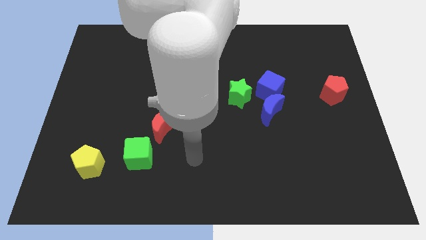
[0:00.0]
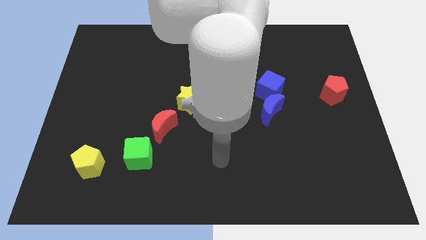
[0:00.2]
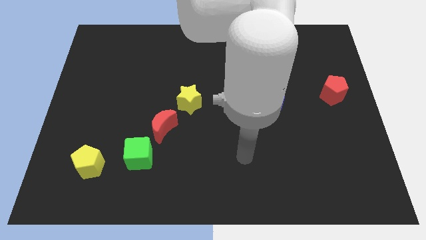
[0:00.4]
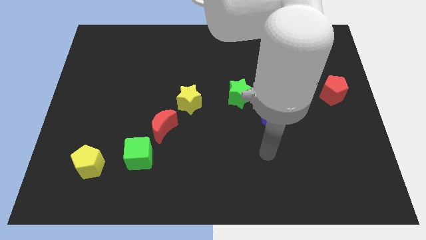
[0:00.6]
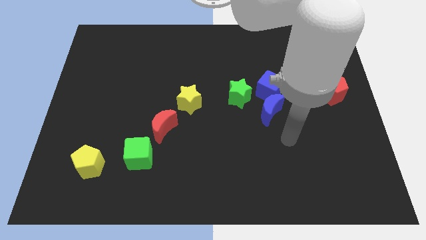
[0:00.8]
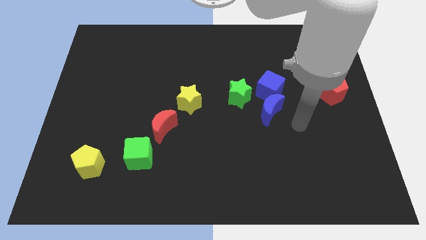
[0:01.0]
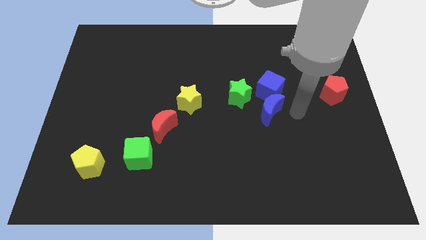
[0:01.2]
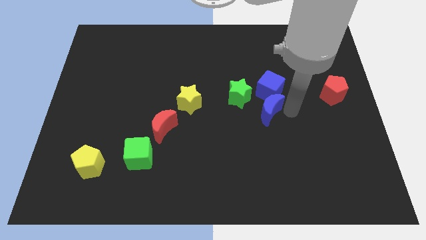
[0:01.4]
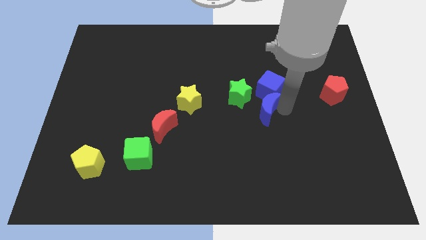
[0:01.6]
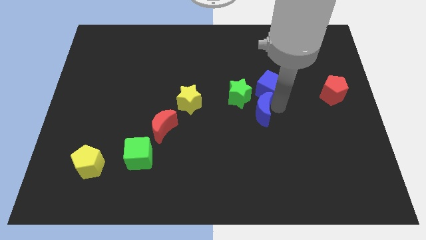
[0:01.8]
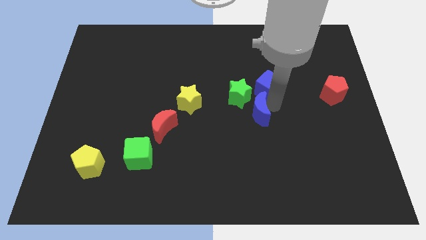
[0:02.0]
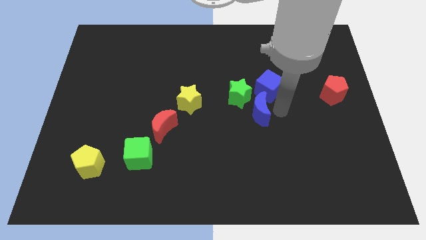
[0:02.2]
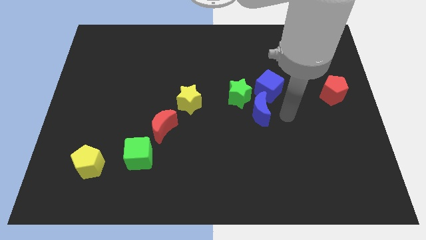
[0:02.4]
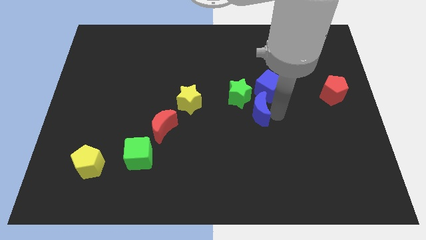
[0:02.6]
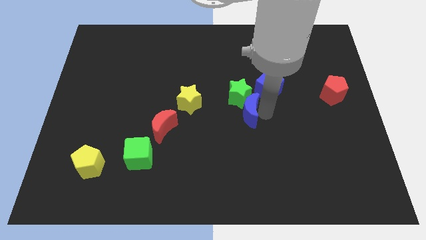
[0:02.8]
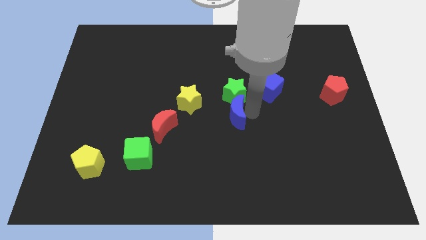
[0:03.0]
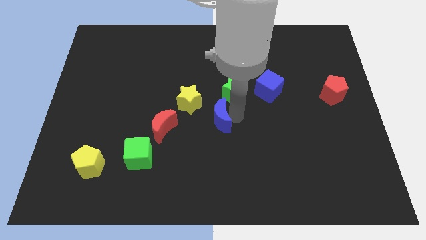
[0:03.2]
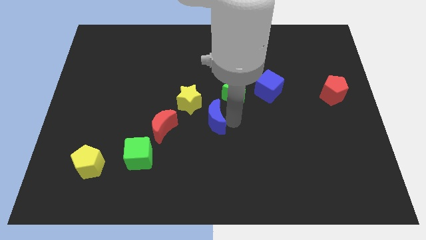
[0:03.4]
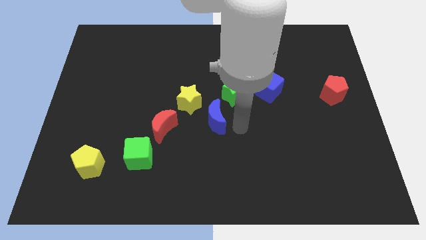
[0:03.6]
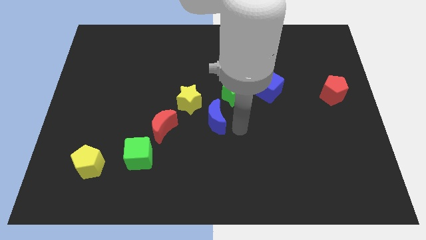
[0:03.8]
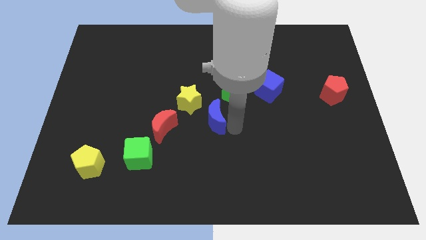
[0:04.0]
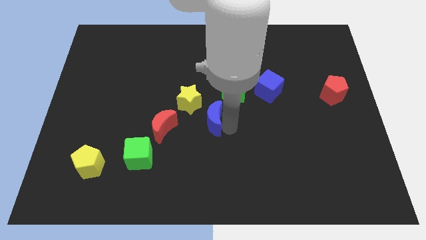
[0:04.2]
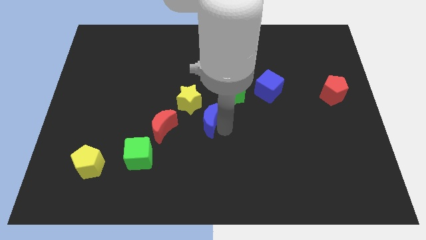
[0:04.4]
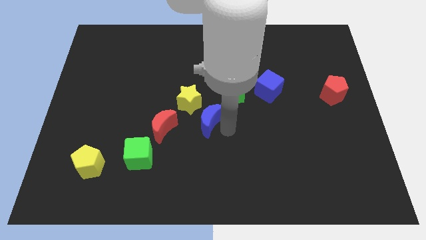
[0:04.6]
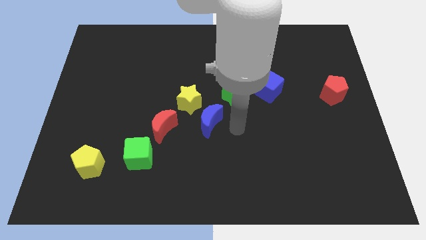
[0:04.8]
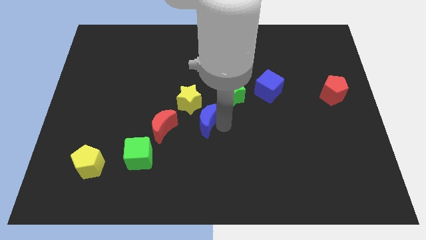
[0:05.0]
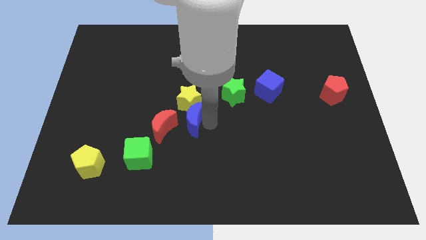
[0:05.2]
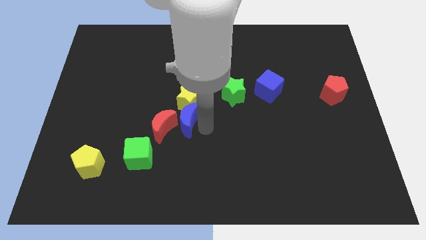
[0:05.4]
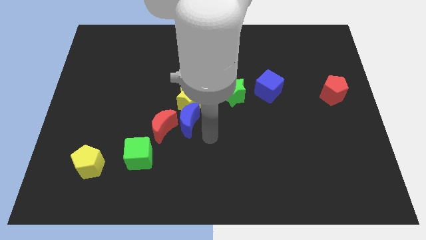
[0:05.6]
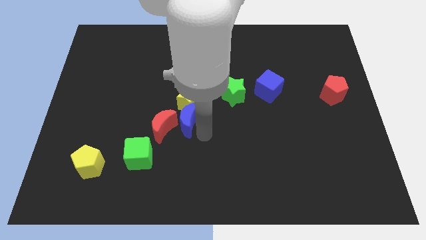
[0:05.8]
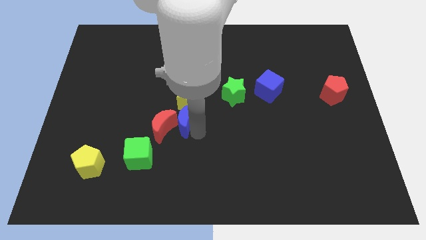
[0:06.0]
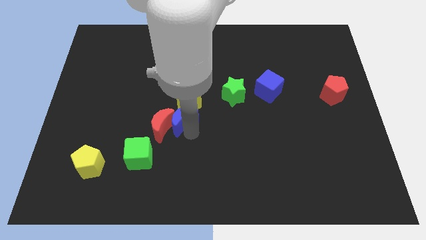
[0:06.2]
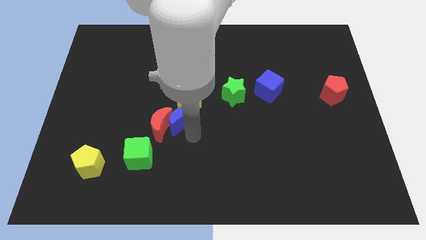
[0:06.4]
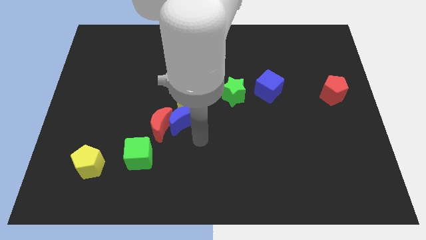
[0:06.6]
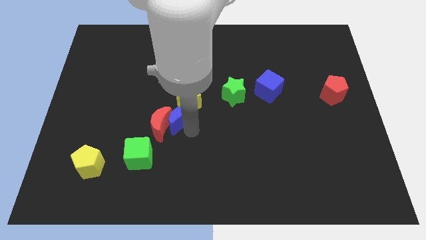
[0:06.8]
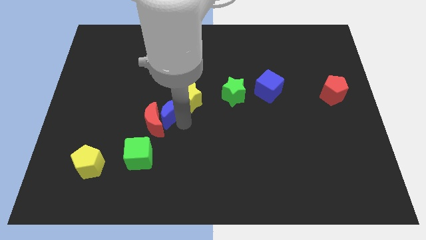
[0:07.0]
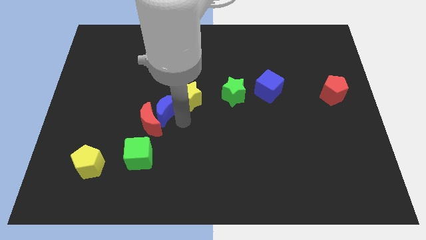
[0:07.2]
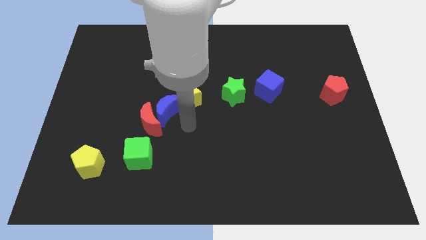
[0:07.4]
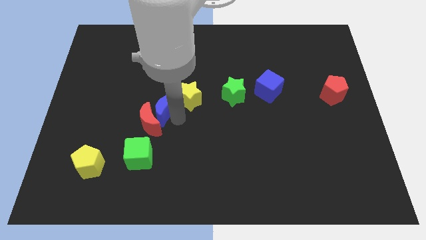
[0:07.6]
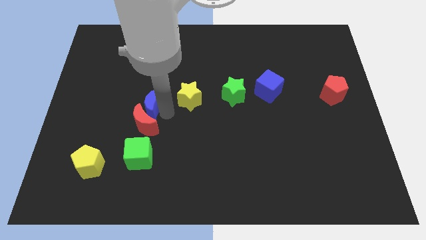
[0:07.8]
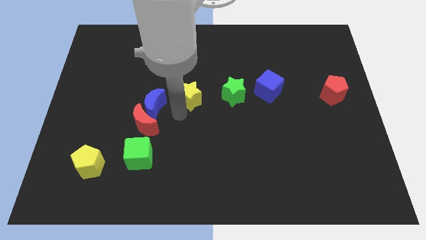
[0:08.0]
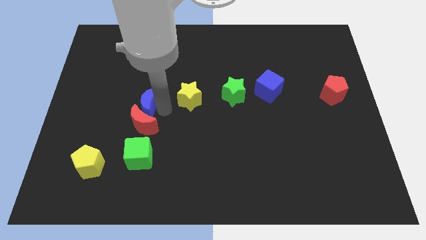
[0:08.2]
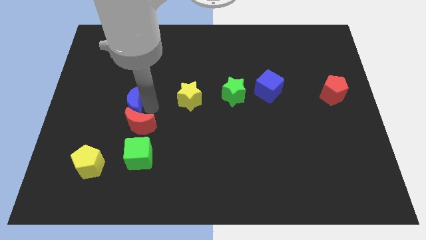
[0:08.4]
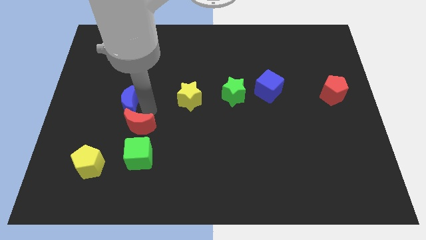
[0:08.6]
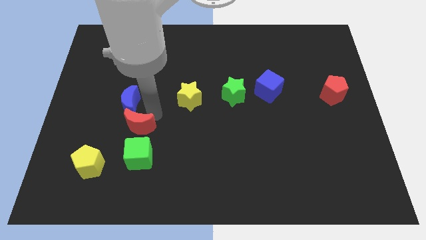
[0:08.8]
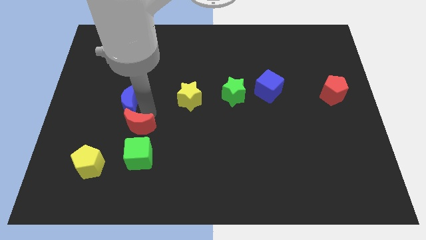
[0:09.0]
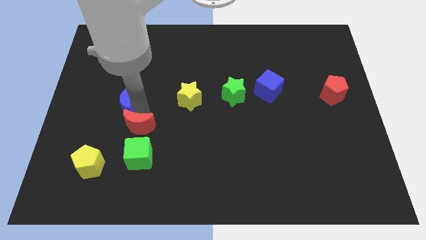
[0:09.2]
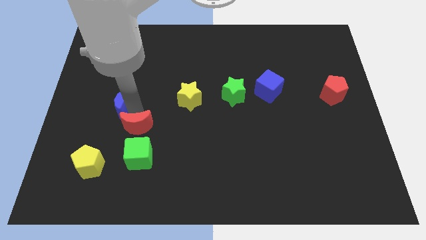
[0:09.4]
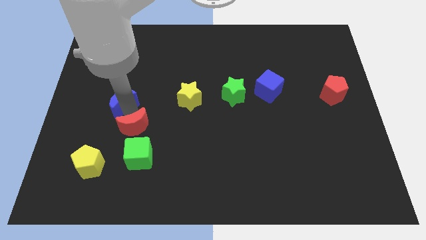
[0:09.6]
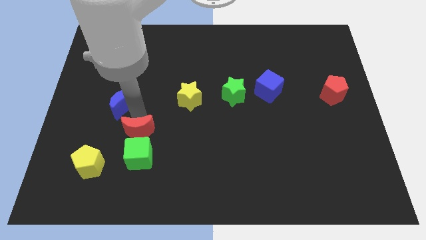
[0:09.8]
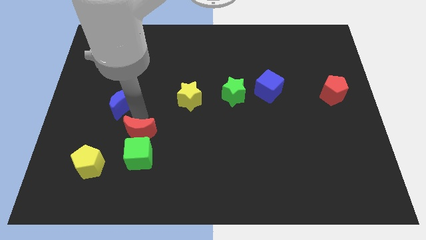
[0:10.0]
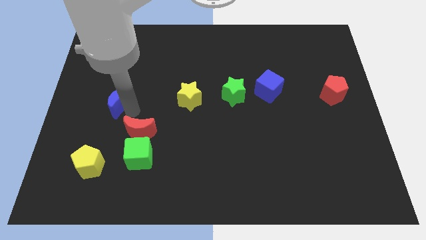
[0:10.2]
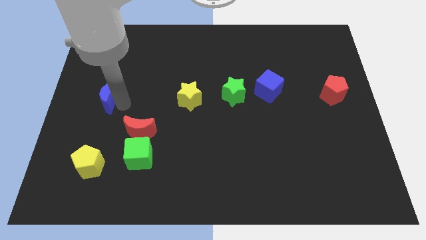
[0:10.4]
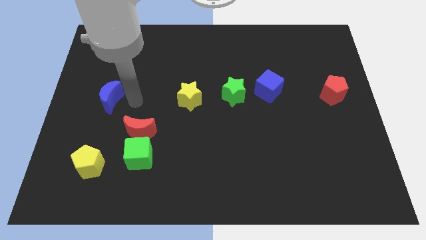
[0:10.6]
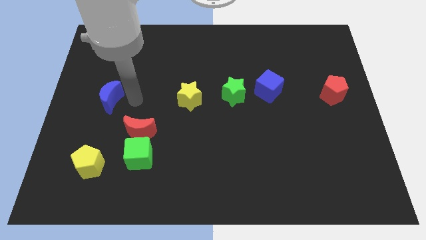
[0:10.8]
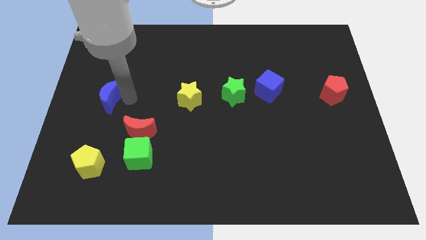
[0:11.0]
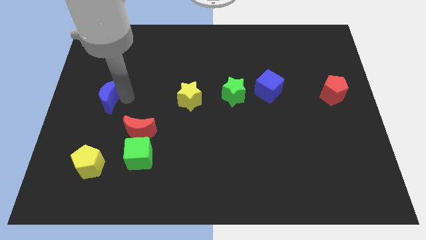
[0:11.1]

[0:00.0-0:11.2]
put the blue moon to the left side of the board

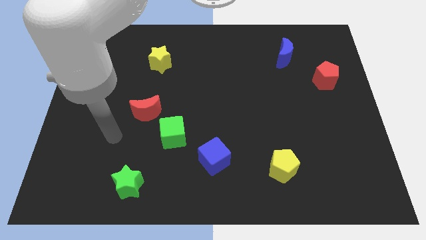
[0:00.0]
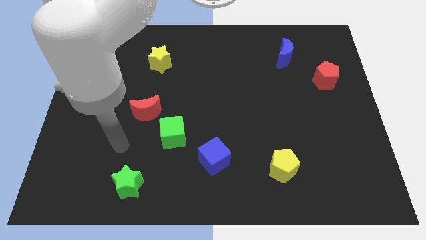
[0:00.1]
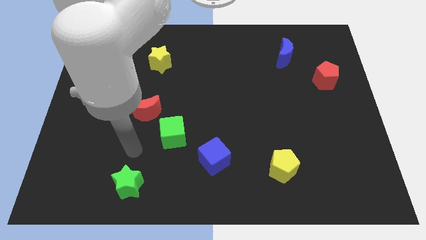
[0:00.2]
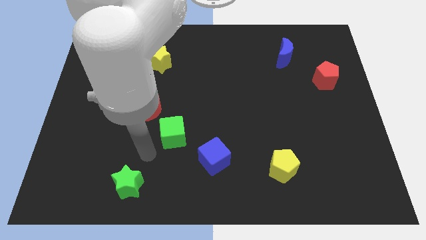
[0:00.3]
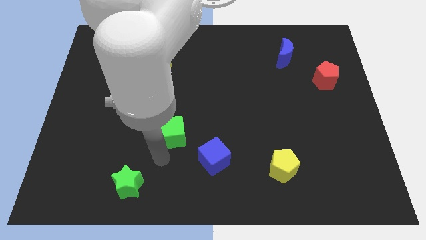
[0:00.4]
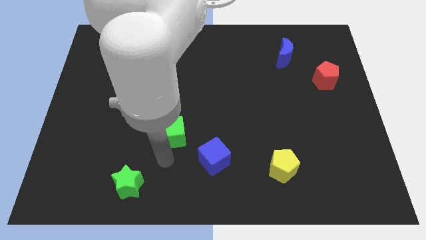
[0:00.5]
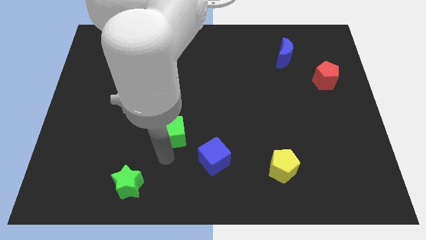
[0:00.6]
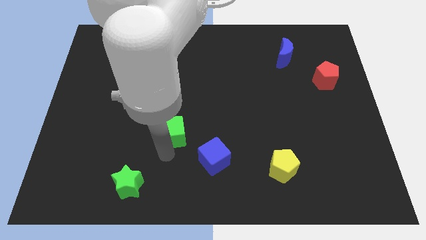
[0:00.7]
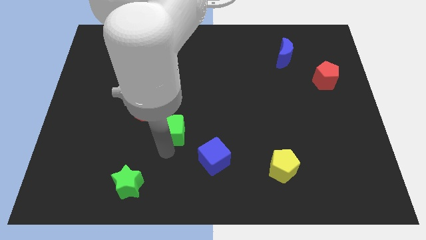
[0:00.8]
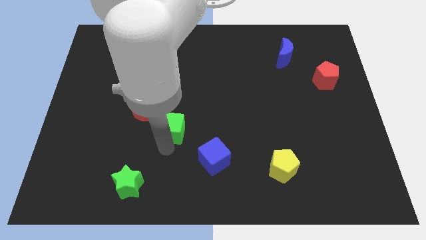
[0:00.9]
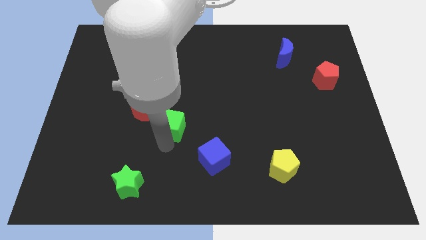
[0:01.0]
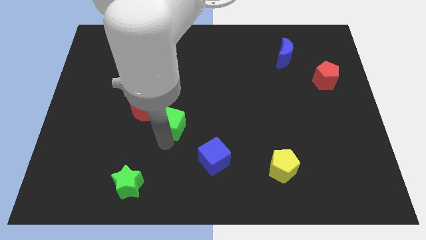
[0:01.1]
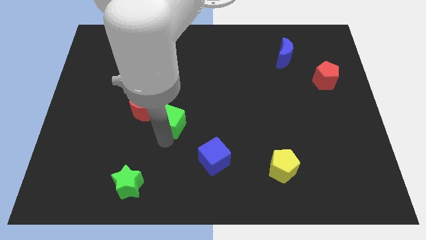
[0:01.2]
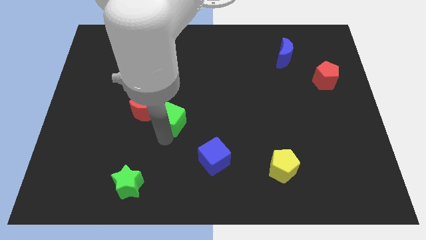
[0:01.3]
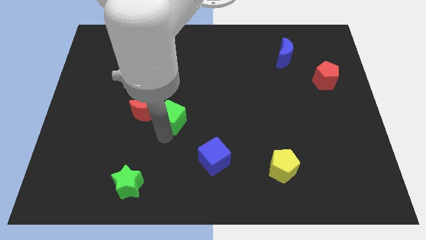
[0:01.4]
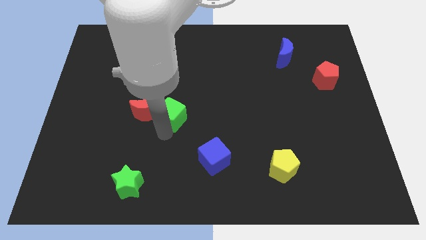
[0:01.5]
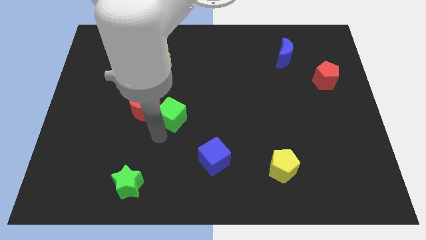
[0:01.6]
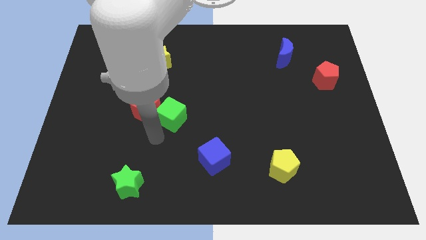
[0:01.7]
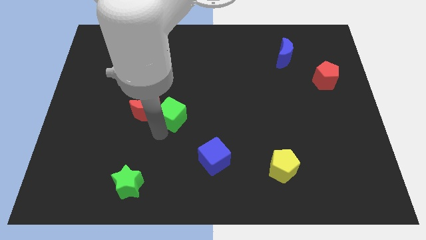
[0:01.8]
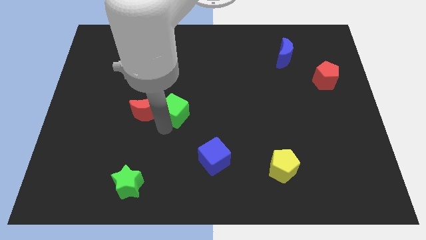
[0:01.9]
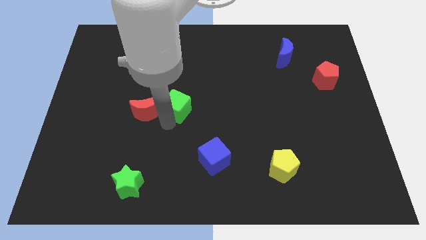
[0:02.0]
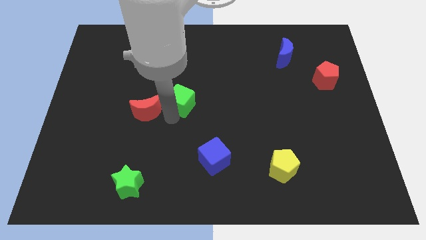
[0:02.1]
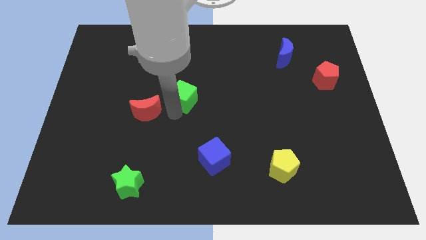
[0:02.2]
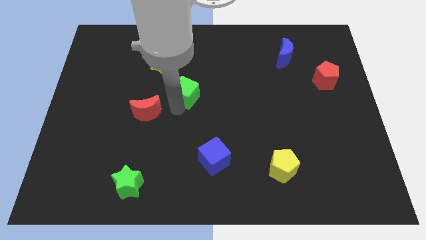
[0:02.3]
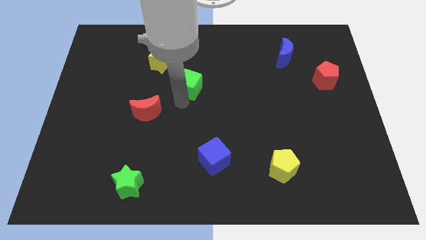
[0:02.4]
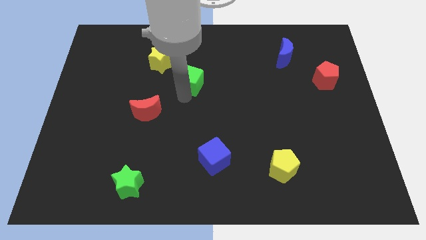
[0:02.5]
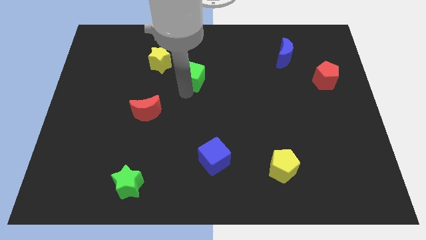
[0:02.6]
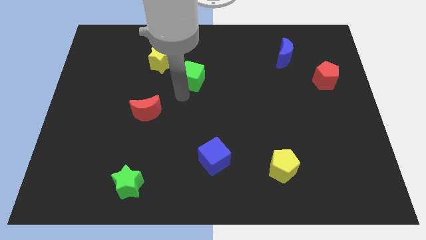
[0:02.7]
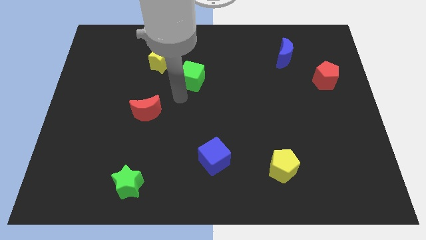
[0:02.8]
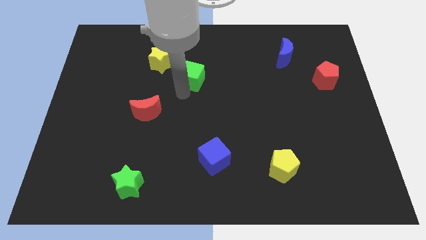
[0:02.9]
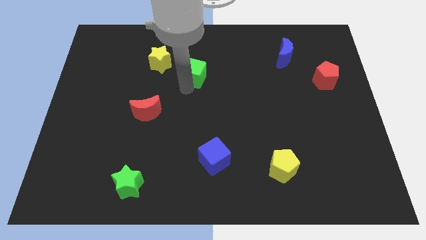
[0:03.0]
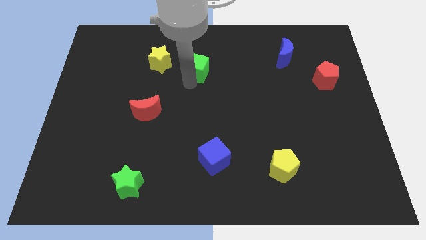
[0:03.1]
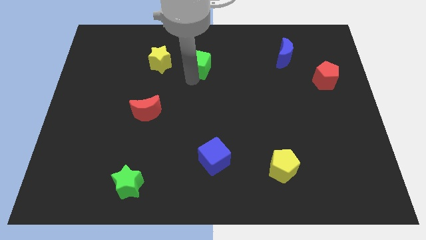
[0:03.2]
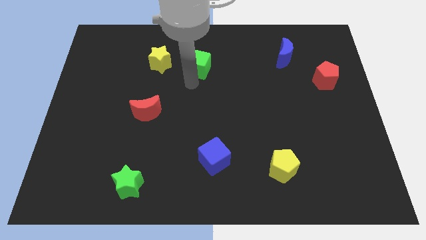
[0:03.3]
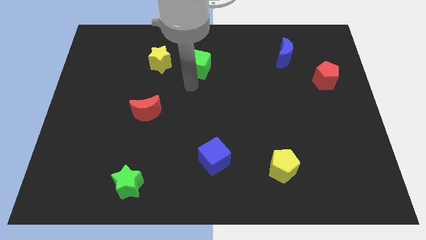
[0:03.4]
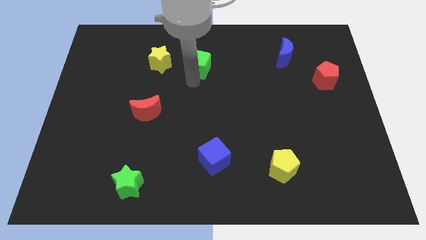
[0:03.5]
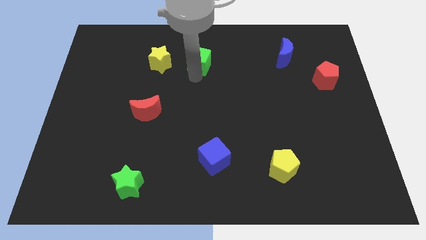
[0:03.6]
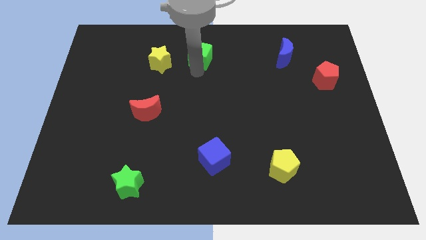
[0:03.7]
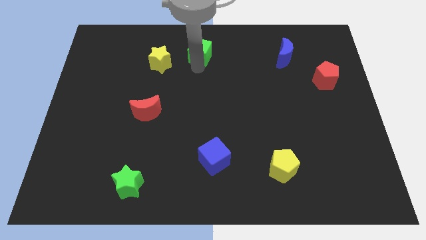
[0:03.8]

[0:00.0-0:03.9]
put the green cube to the top side
